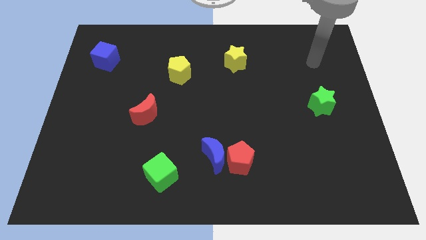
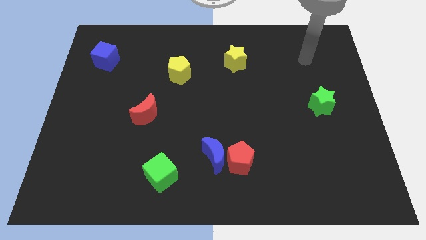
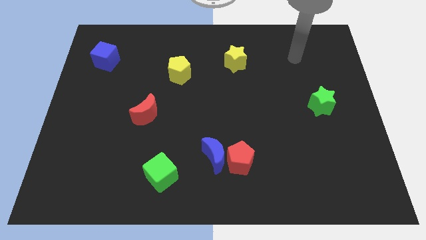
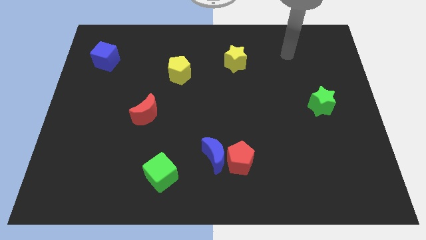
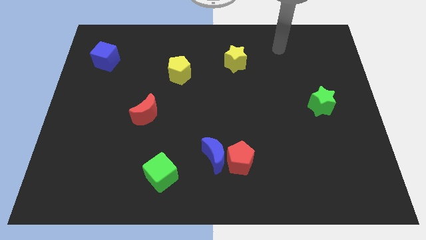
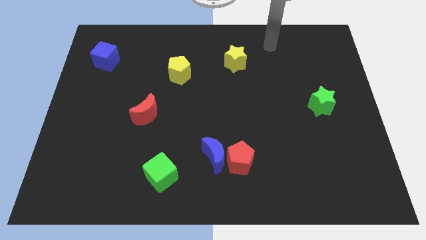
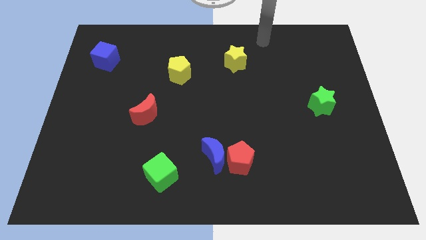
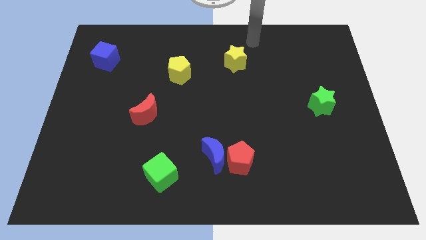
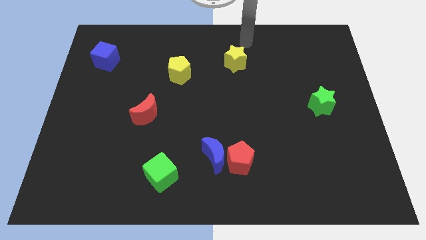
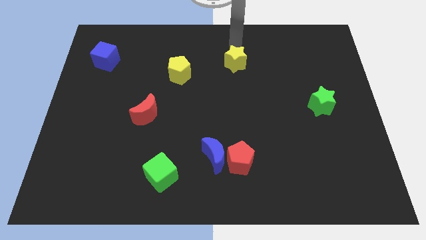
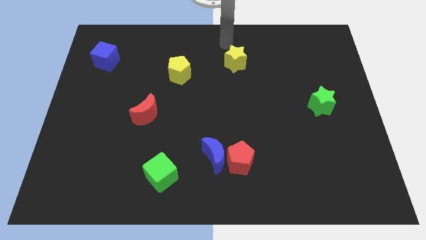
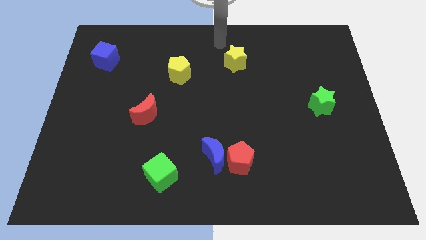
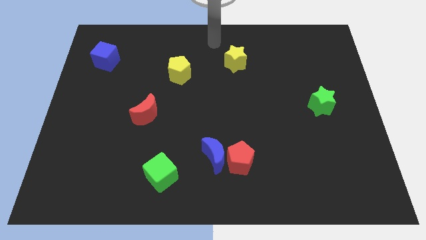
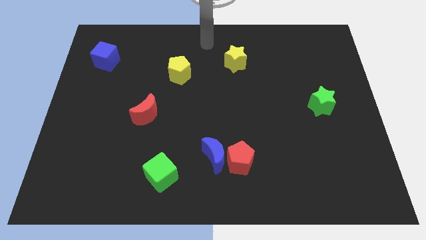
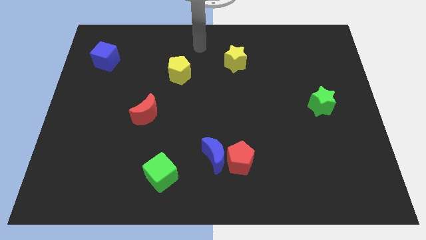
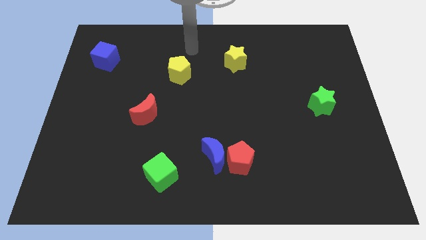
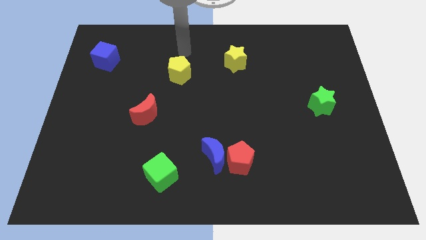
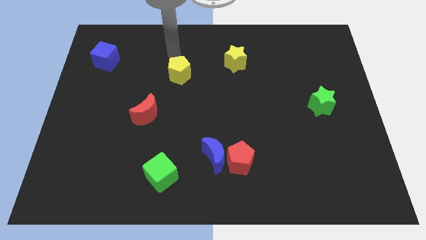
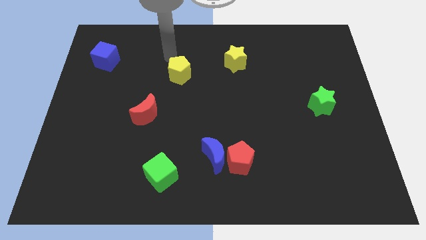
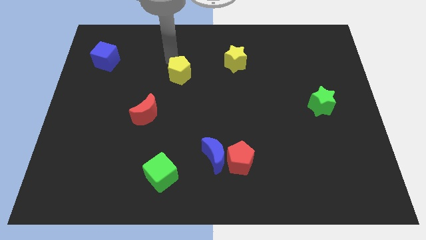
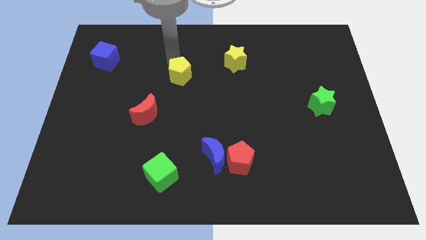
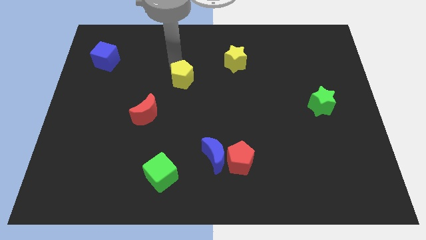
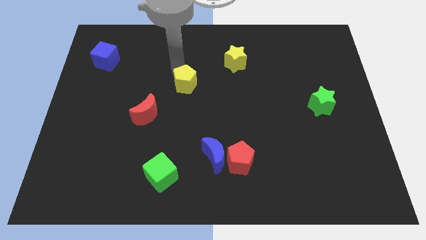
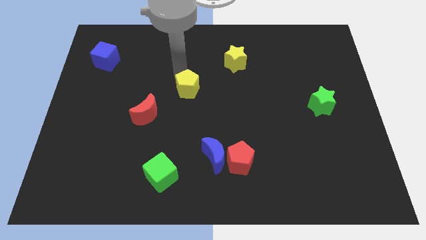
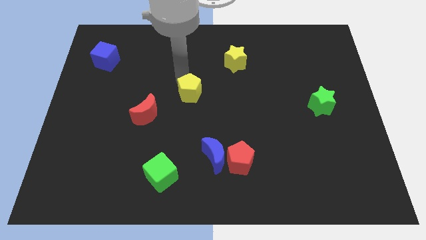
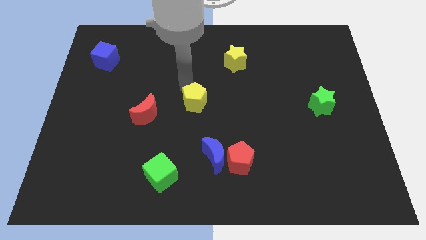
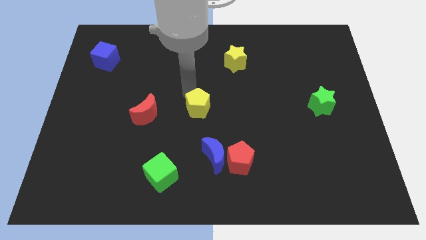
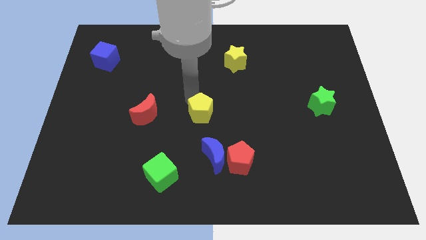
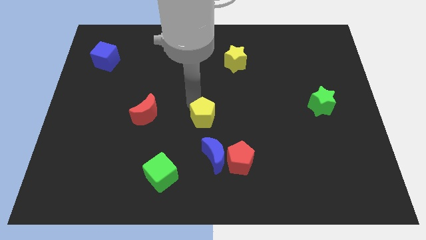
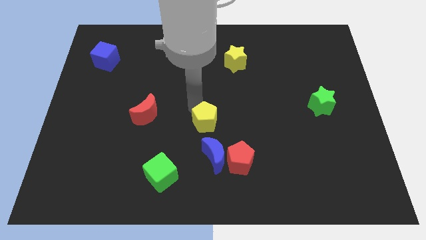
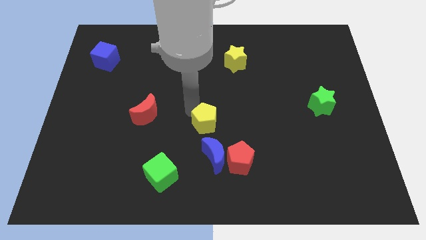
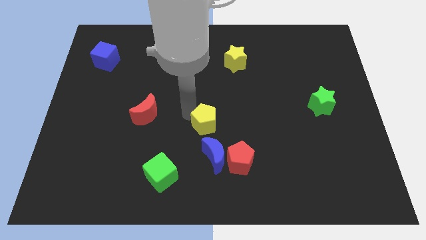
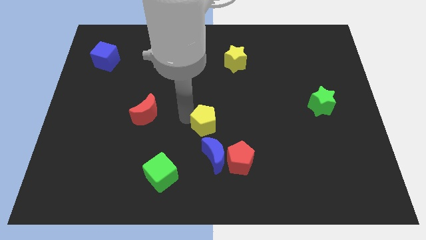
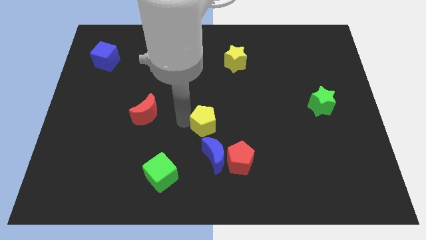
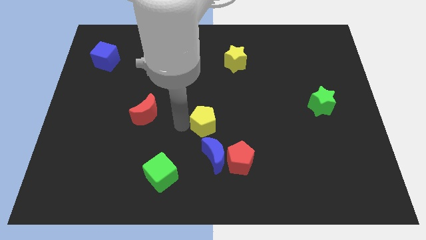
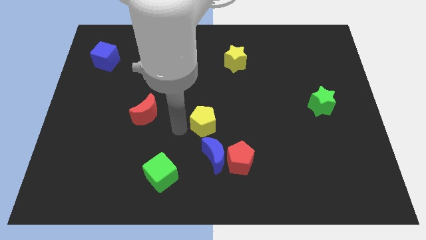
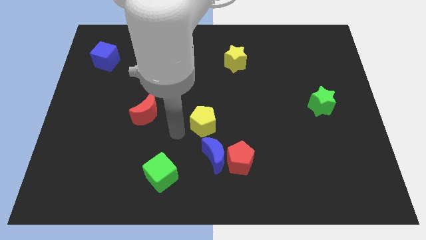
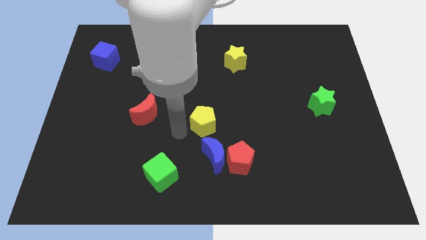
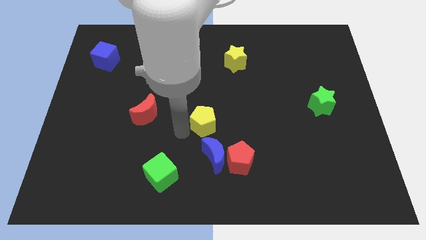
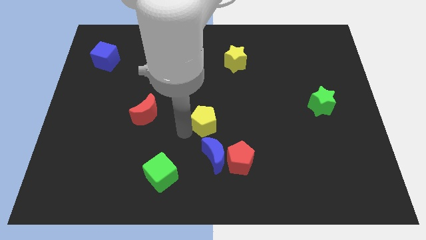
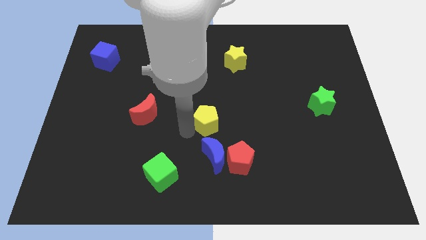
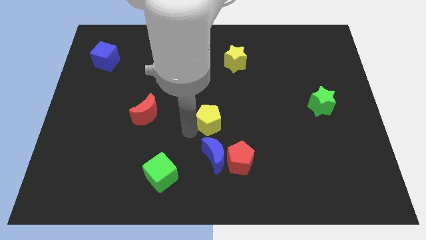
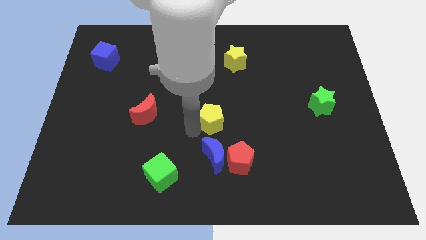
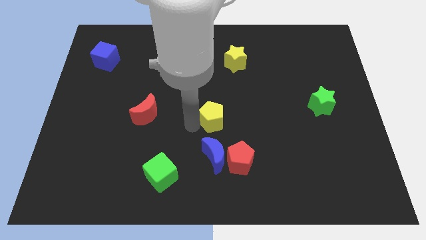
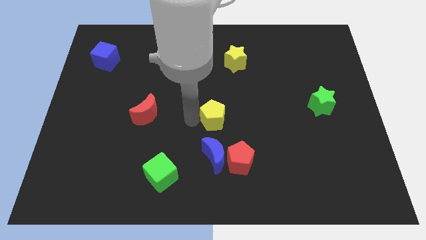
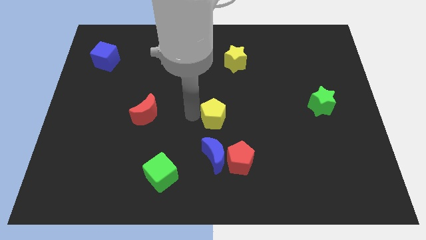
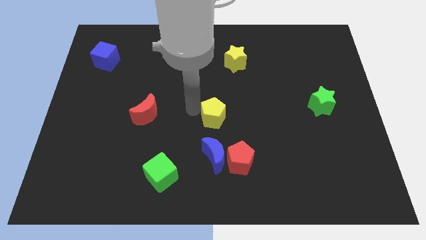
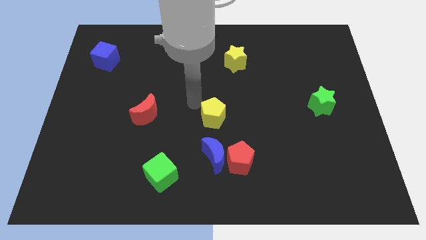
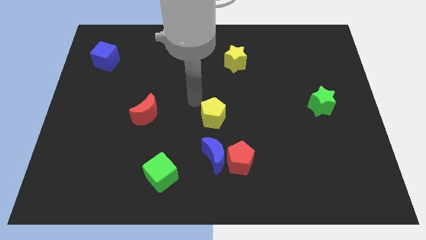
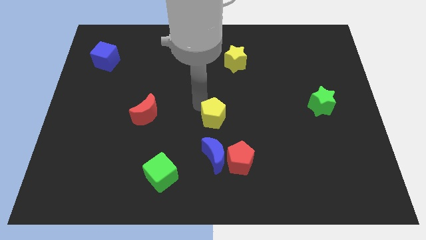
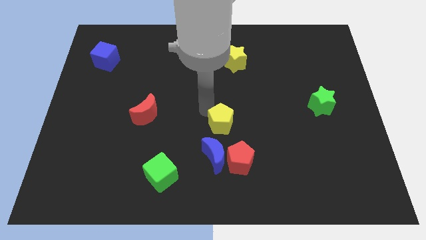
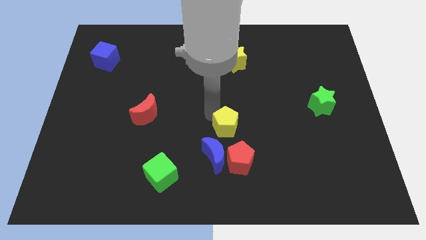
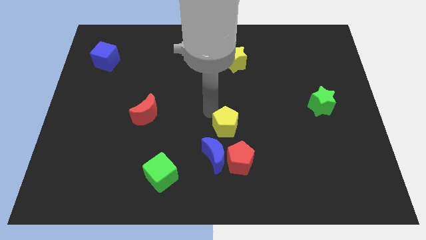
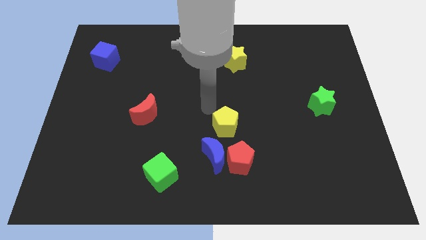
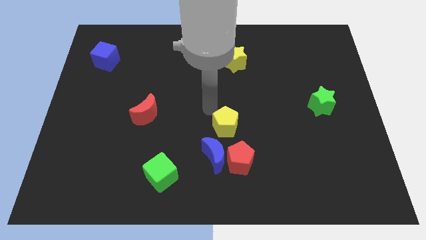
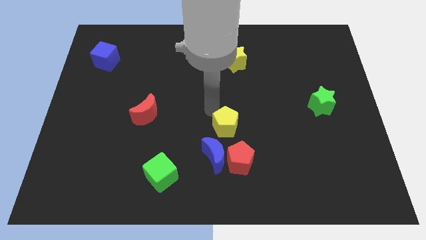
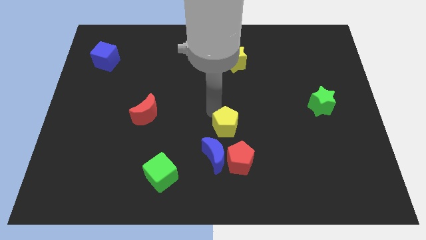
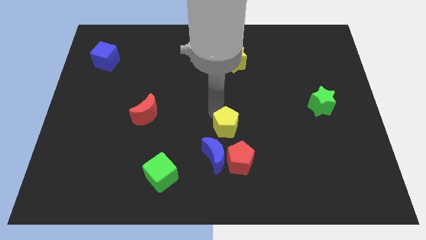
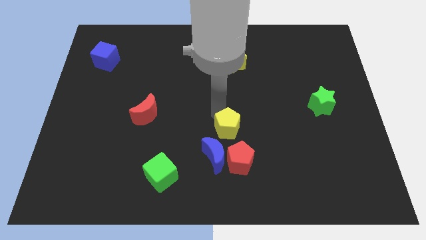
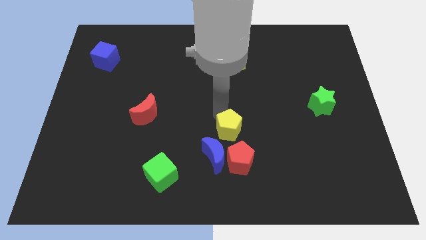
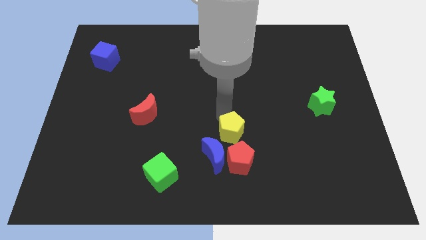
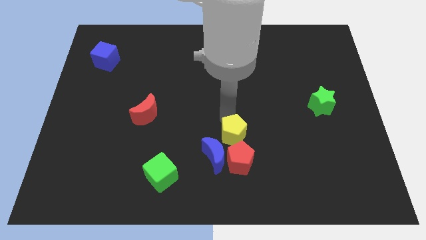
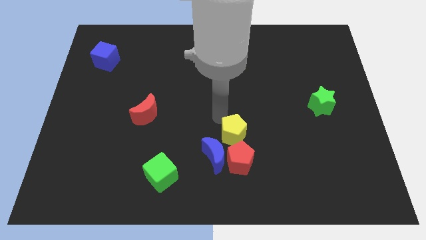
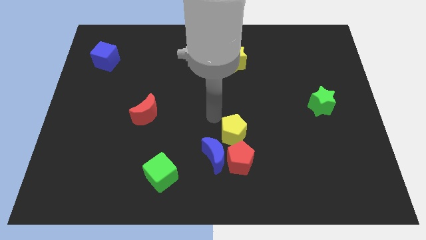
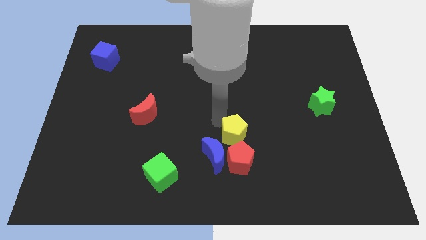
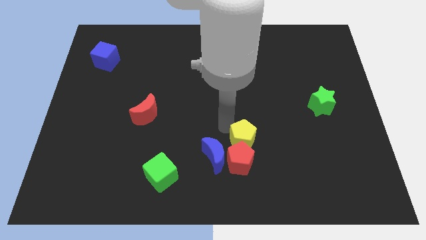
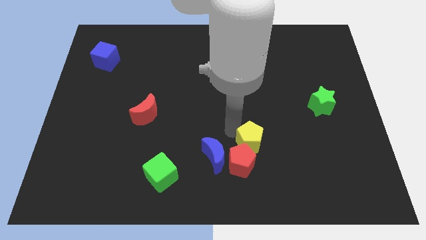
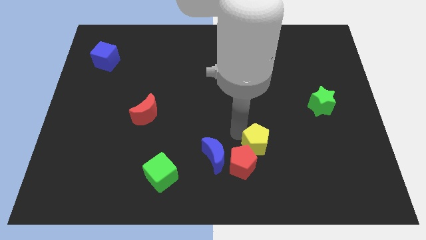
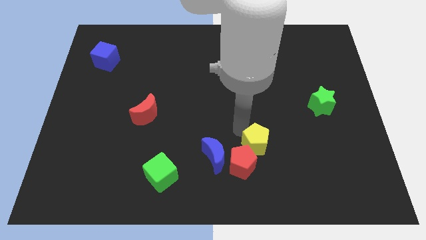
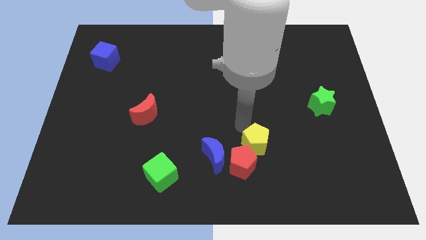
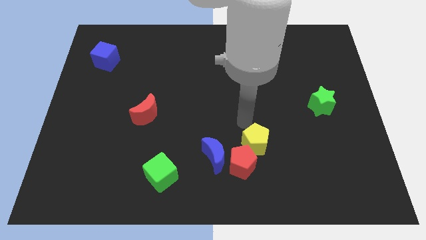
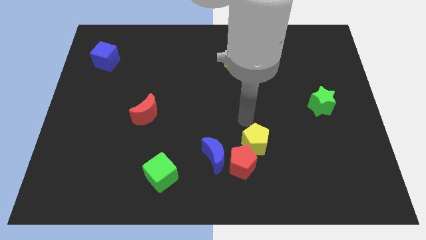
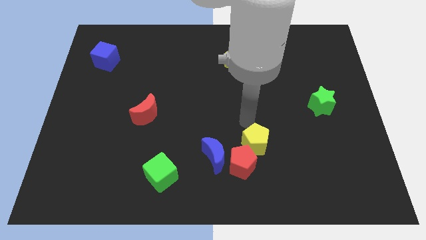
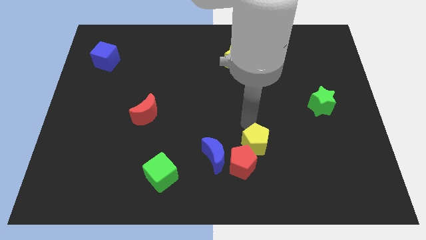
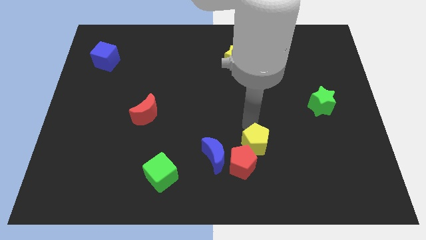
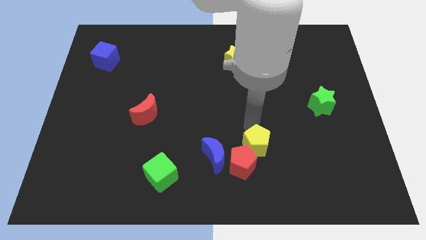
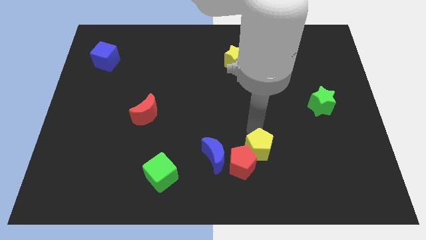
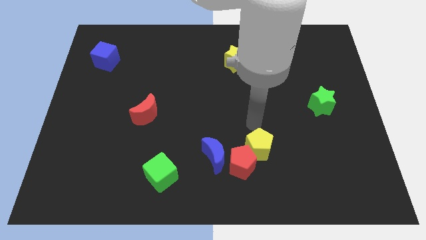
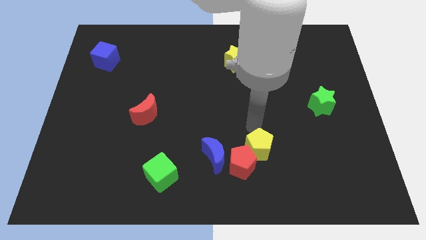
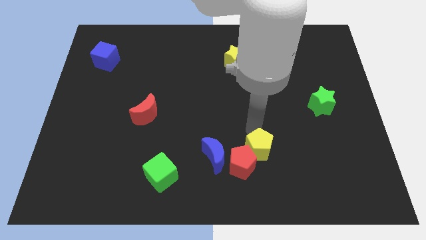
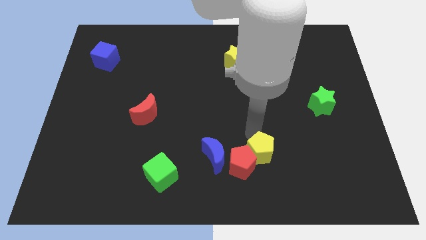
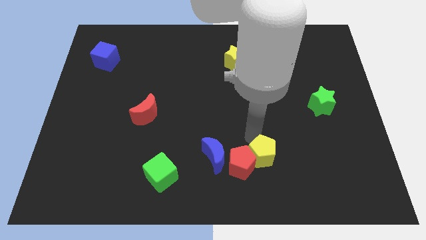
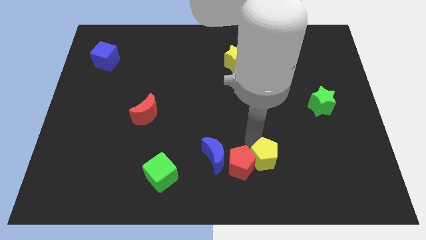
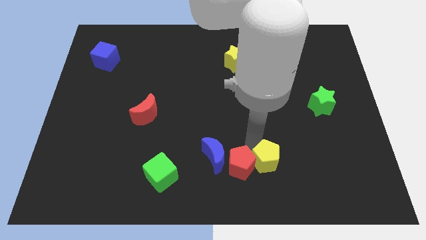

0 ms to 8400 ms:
move the yellow pentagon to the bottom right side of the red pentagon
